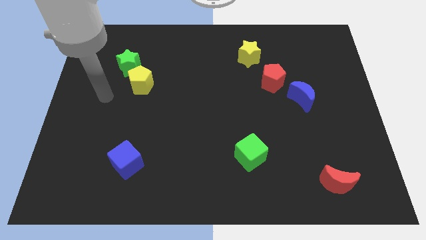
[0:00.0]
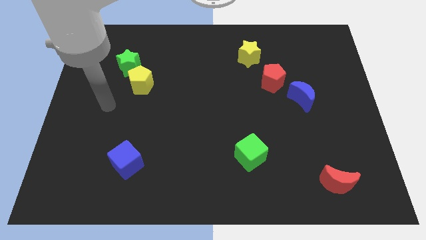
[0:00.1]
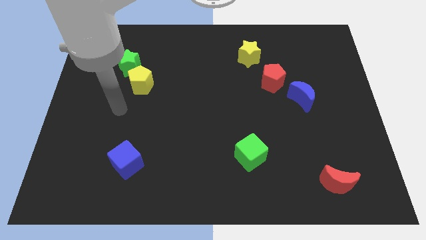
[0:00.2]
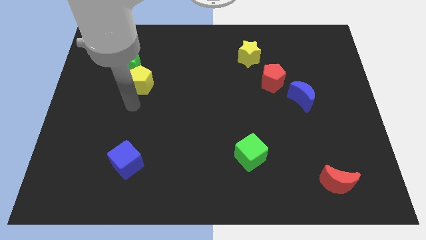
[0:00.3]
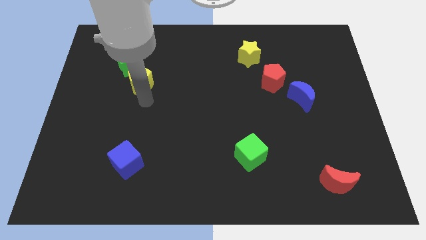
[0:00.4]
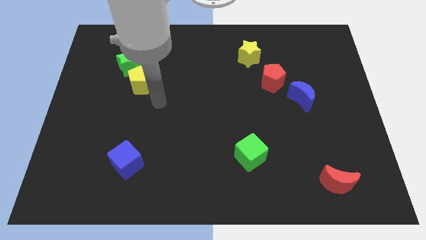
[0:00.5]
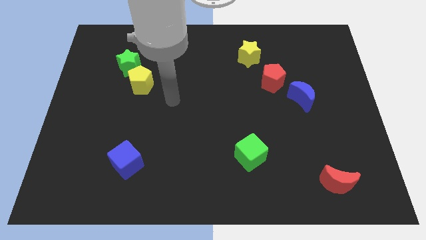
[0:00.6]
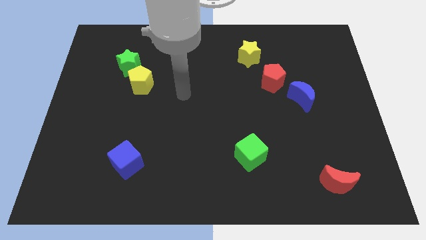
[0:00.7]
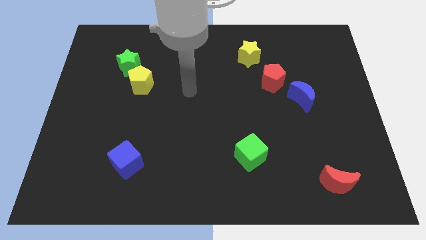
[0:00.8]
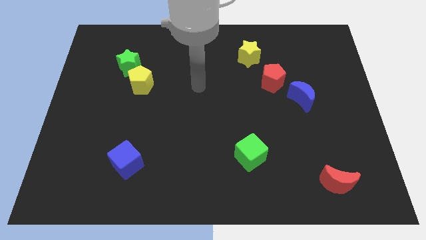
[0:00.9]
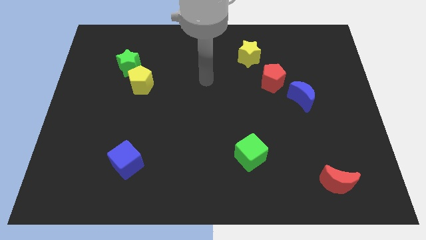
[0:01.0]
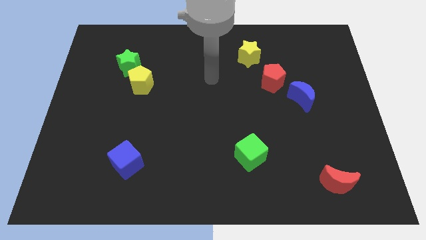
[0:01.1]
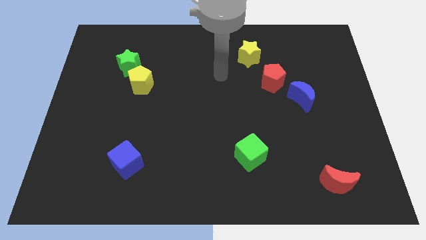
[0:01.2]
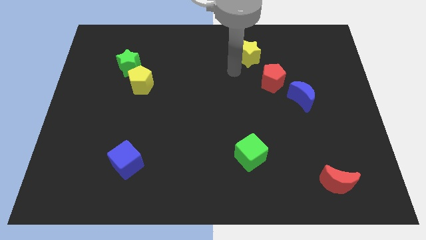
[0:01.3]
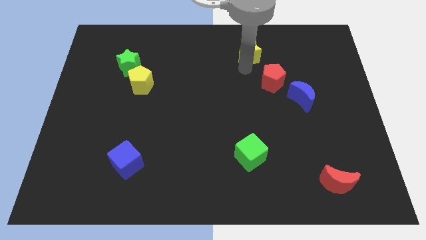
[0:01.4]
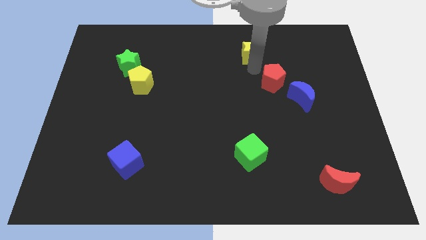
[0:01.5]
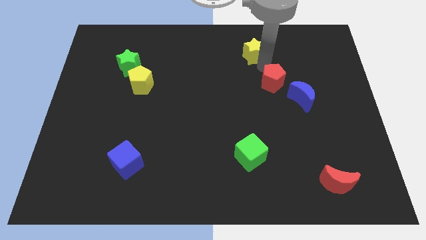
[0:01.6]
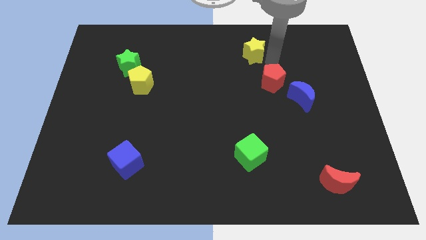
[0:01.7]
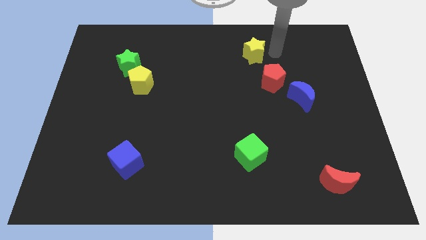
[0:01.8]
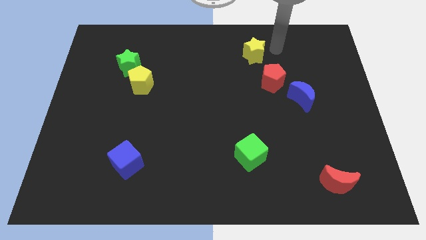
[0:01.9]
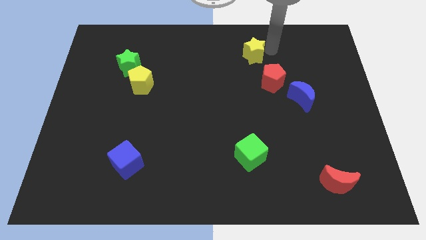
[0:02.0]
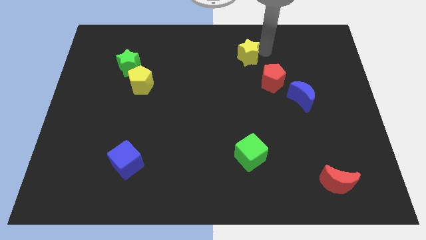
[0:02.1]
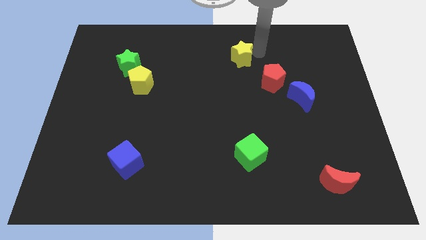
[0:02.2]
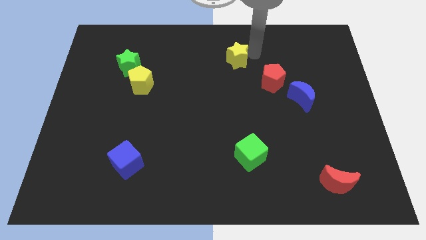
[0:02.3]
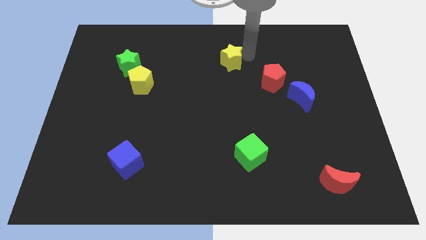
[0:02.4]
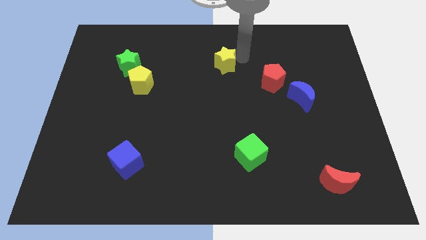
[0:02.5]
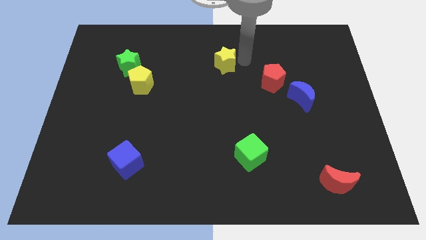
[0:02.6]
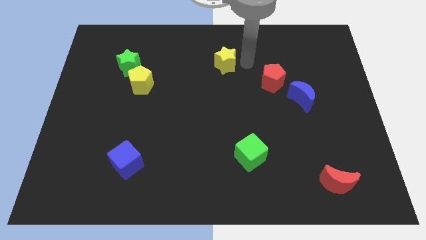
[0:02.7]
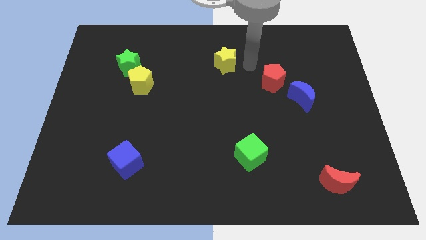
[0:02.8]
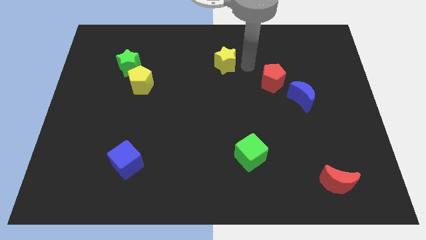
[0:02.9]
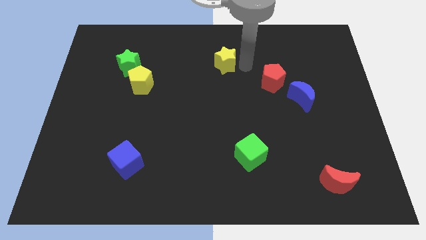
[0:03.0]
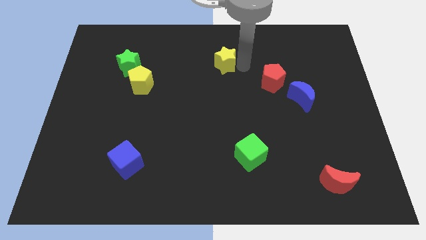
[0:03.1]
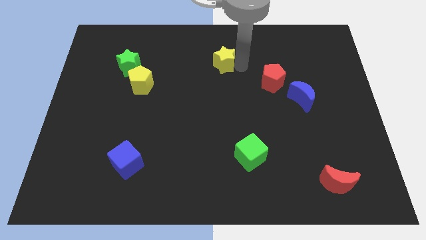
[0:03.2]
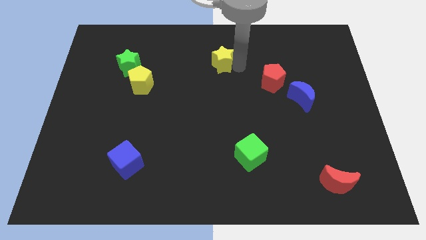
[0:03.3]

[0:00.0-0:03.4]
slightly slide the yellow star left

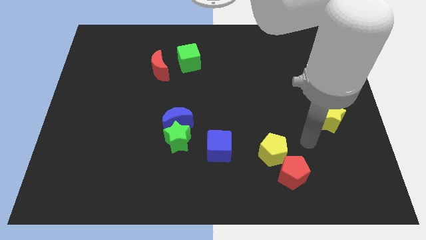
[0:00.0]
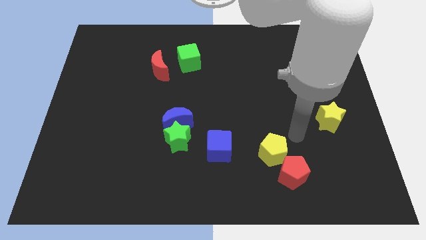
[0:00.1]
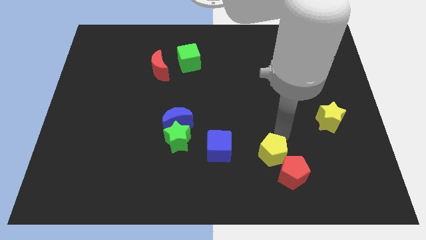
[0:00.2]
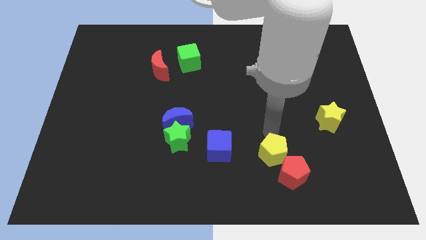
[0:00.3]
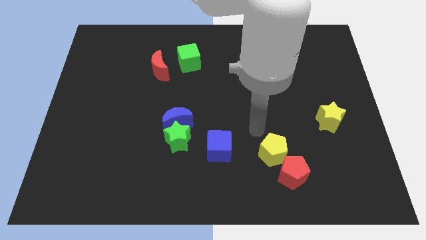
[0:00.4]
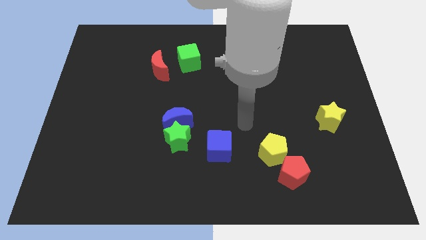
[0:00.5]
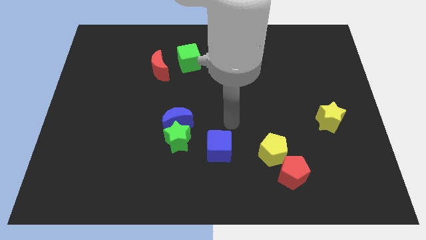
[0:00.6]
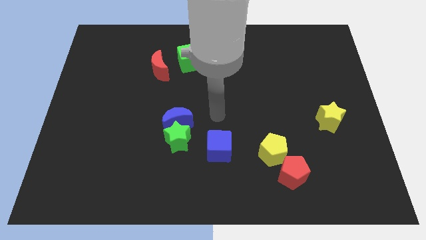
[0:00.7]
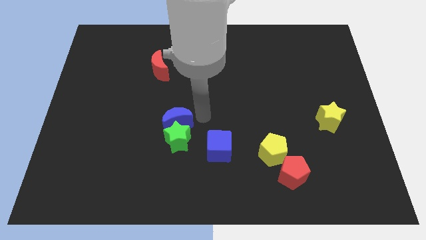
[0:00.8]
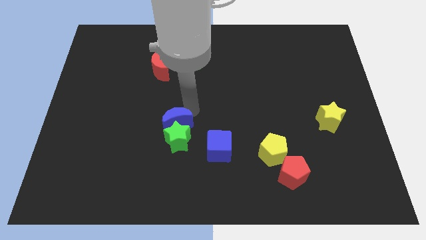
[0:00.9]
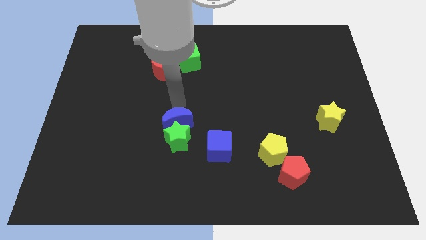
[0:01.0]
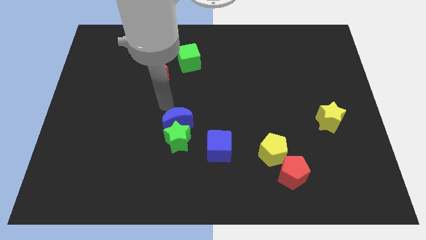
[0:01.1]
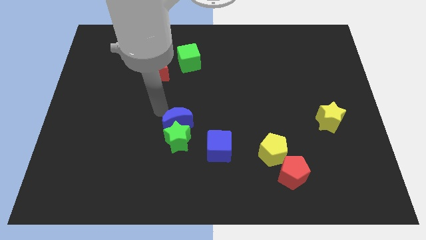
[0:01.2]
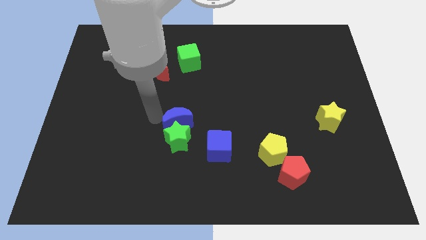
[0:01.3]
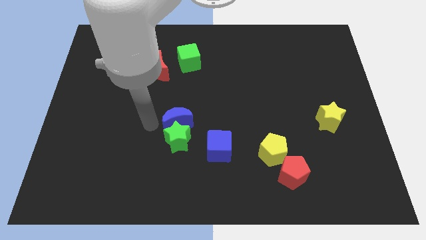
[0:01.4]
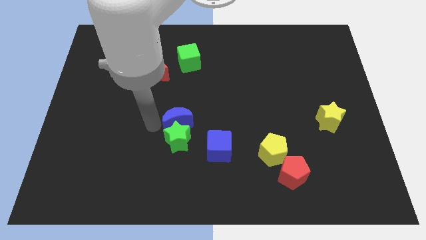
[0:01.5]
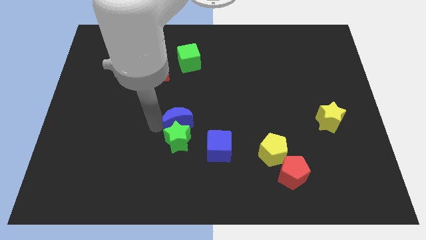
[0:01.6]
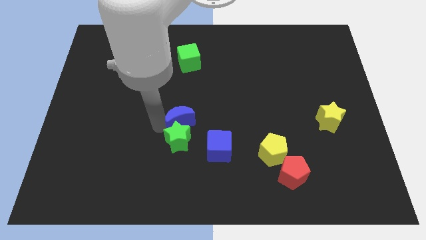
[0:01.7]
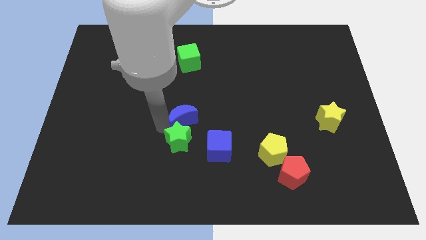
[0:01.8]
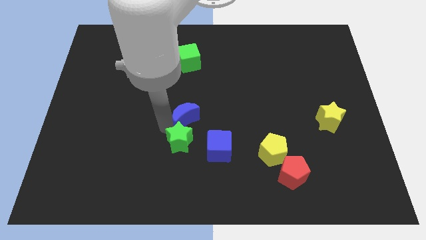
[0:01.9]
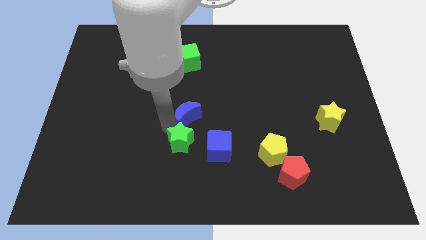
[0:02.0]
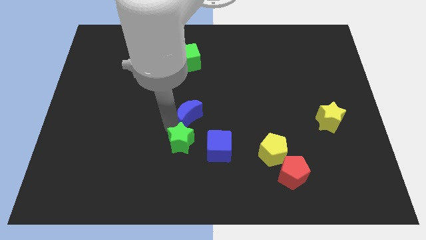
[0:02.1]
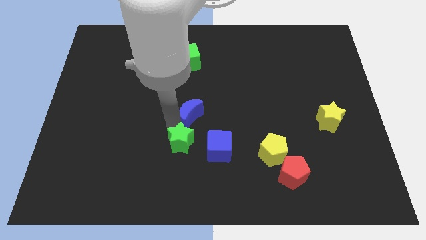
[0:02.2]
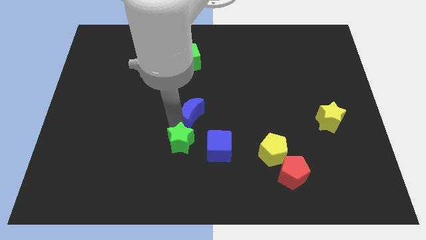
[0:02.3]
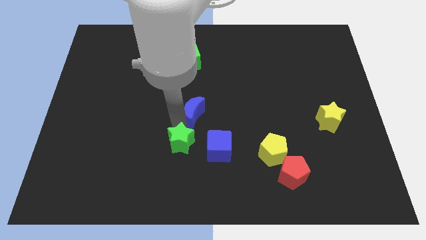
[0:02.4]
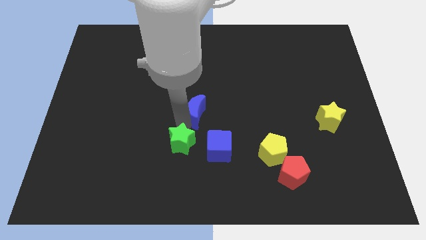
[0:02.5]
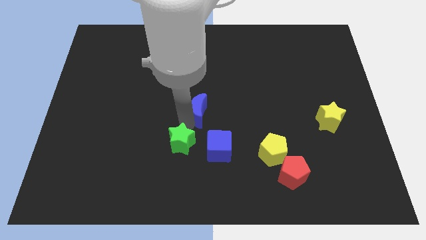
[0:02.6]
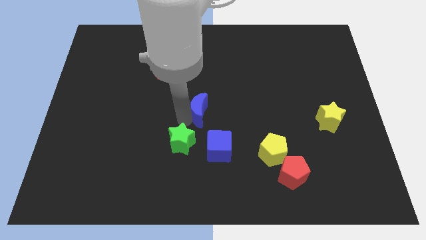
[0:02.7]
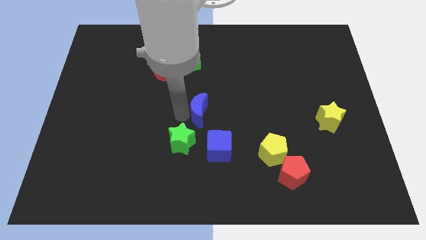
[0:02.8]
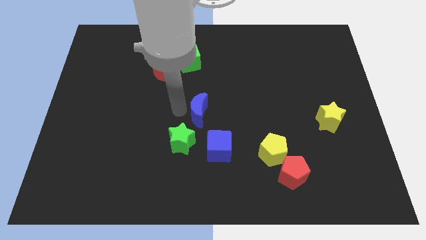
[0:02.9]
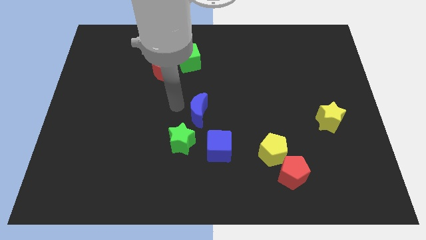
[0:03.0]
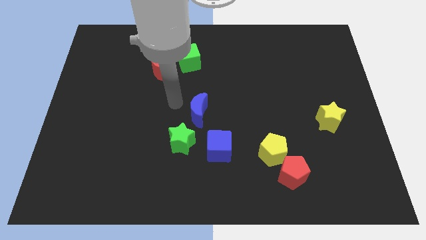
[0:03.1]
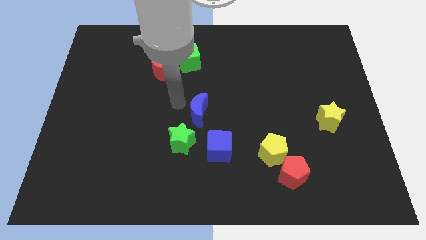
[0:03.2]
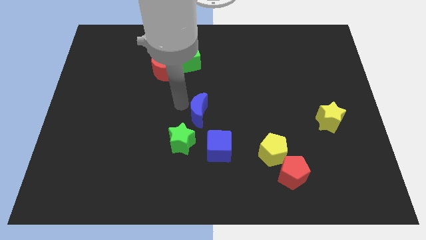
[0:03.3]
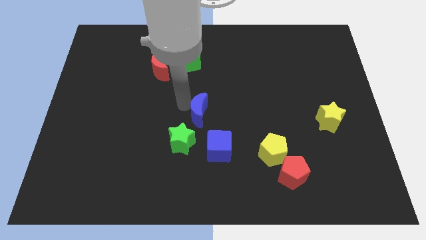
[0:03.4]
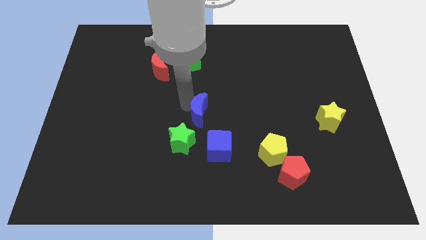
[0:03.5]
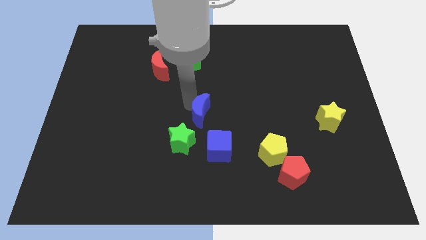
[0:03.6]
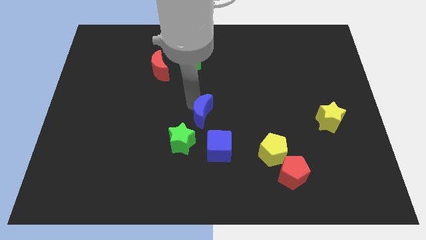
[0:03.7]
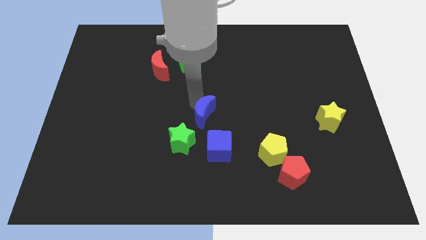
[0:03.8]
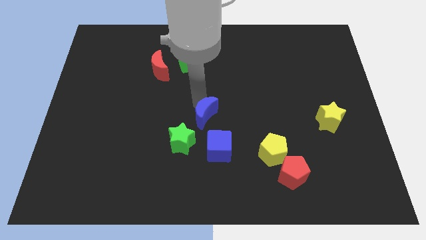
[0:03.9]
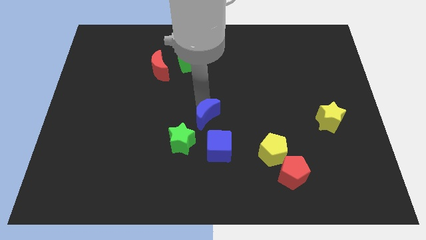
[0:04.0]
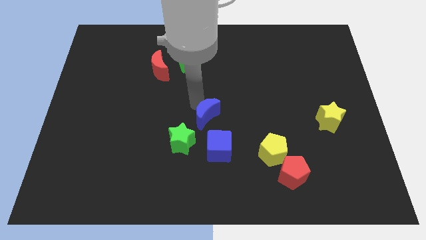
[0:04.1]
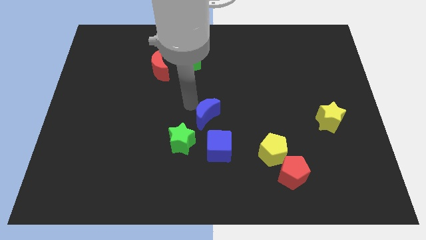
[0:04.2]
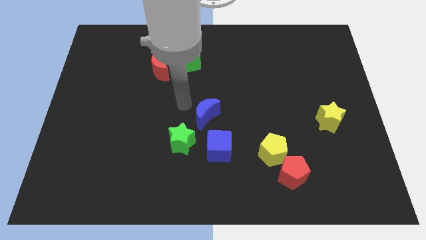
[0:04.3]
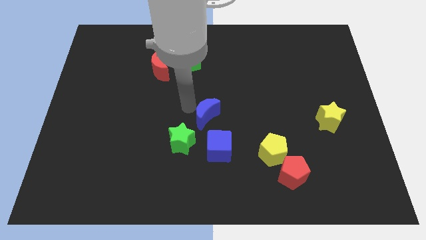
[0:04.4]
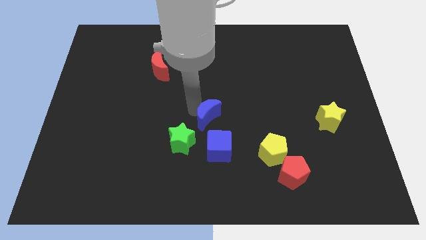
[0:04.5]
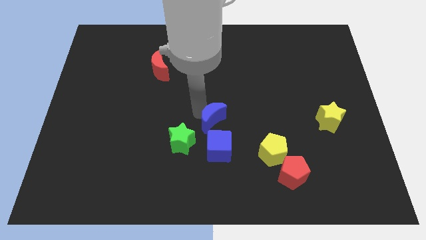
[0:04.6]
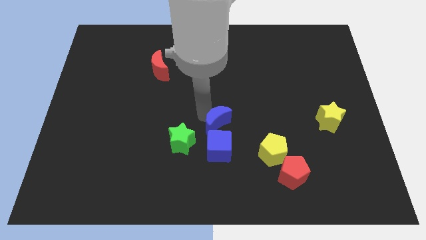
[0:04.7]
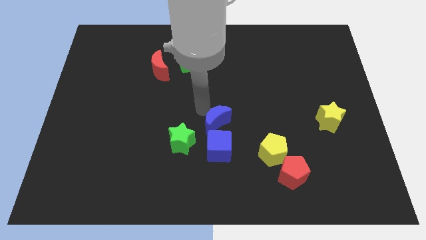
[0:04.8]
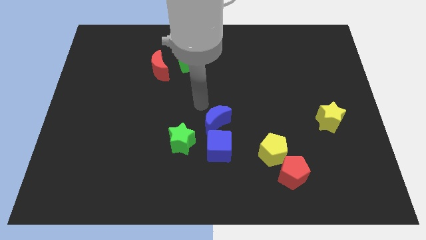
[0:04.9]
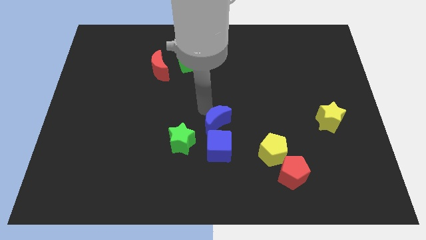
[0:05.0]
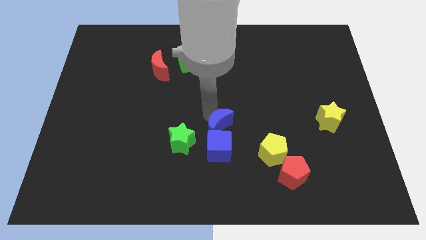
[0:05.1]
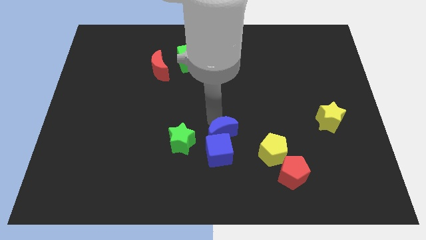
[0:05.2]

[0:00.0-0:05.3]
move the blue moon diagonally down and to the right a little bit

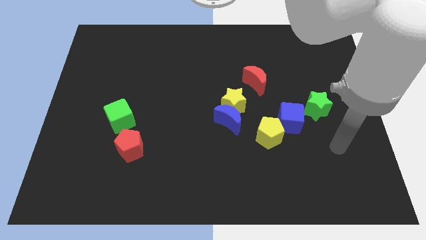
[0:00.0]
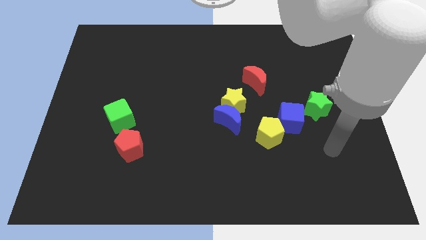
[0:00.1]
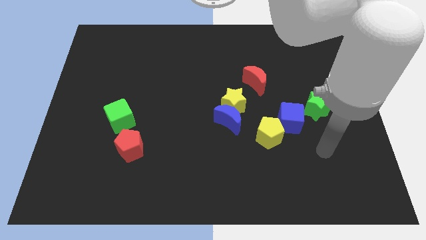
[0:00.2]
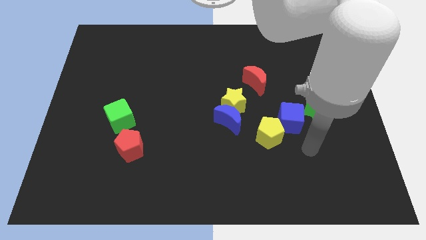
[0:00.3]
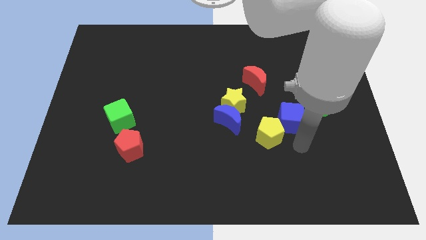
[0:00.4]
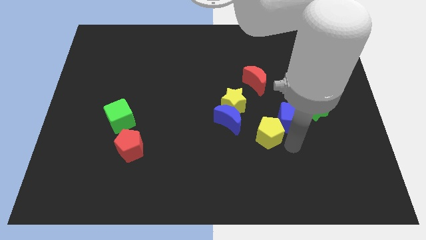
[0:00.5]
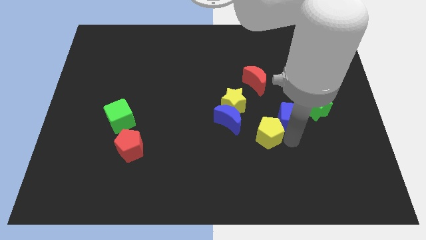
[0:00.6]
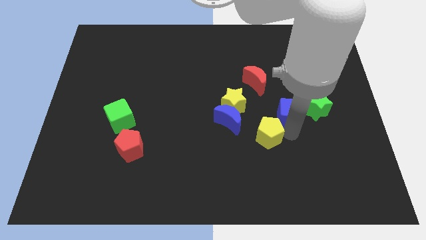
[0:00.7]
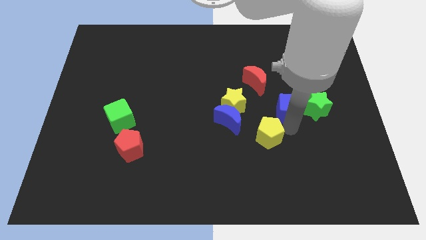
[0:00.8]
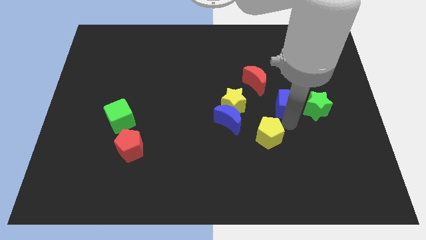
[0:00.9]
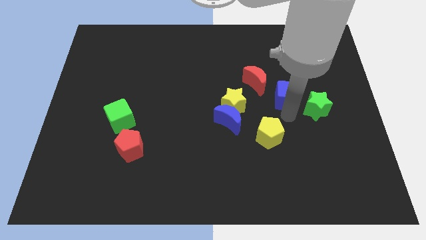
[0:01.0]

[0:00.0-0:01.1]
slightly move the blue cube up
